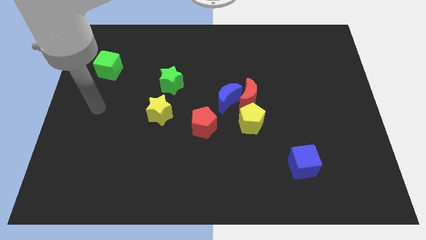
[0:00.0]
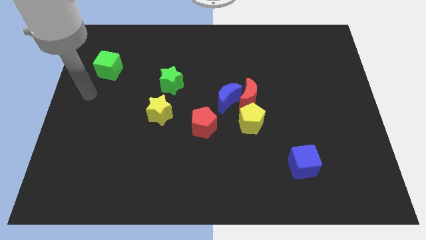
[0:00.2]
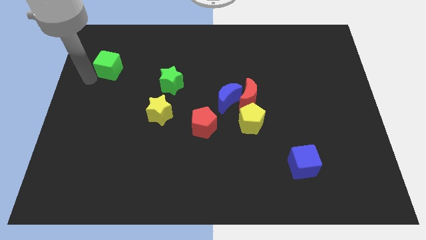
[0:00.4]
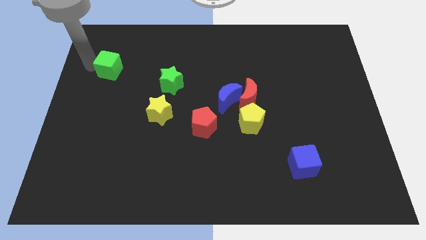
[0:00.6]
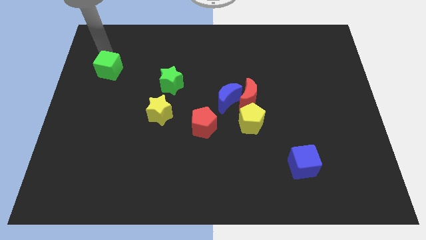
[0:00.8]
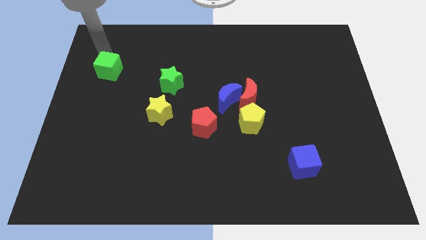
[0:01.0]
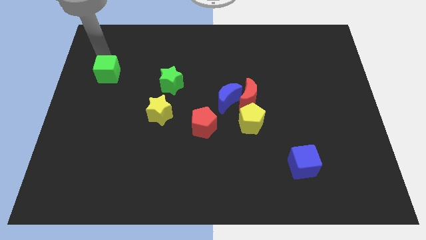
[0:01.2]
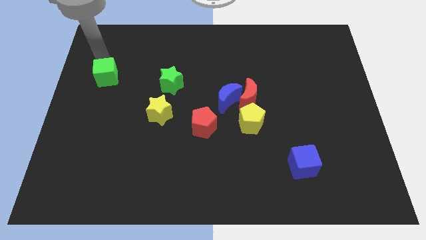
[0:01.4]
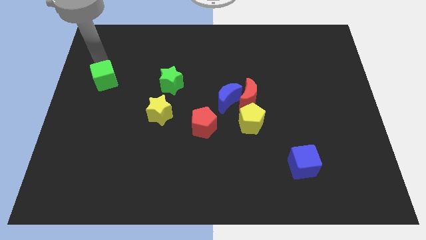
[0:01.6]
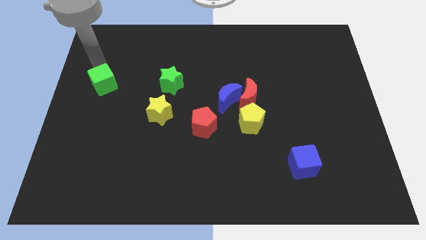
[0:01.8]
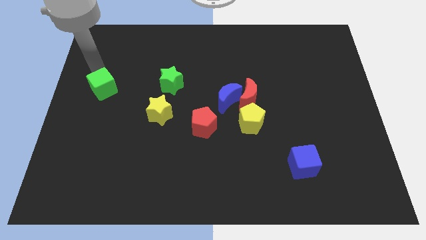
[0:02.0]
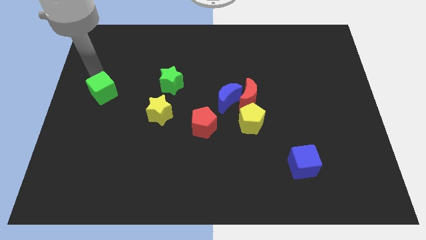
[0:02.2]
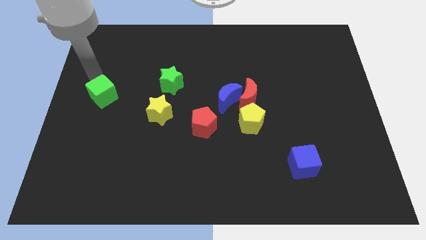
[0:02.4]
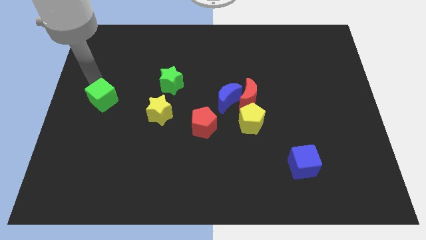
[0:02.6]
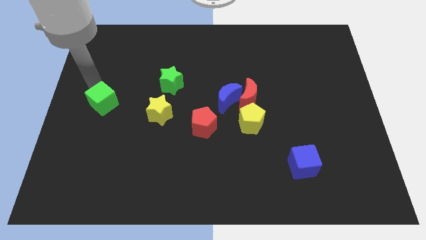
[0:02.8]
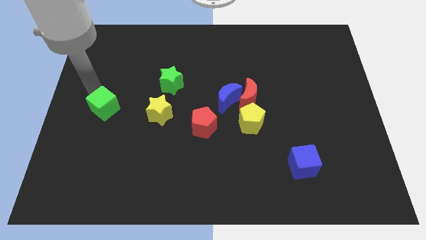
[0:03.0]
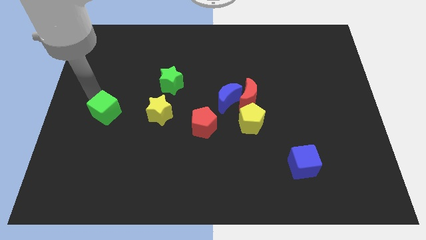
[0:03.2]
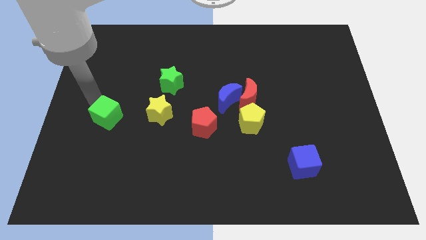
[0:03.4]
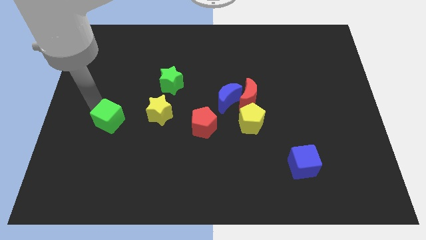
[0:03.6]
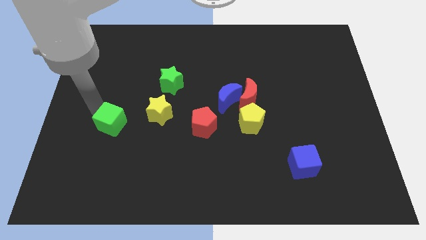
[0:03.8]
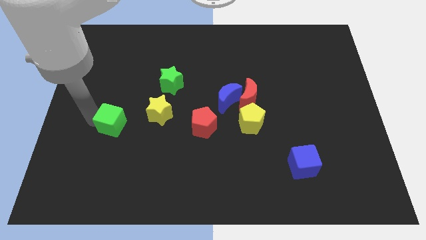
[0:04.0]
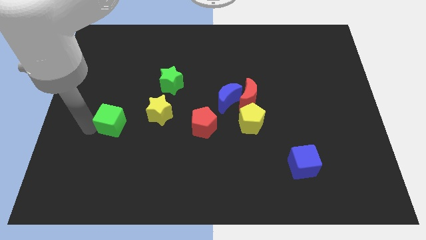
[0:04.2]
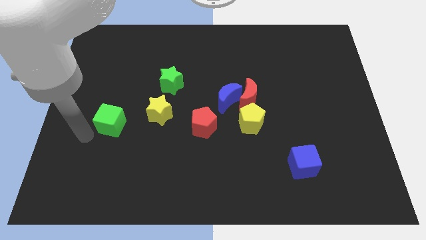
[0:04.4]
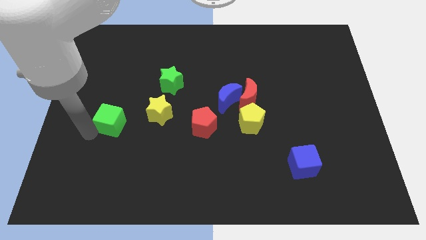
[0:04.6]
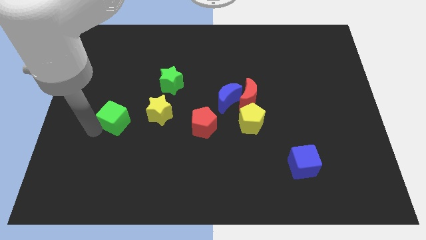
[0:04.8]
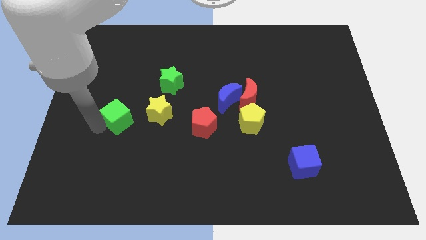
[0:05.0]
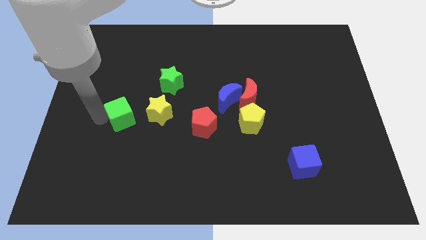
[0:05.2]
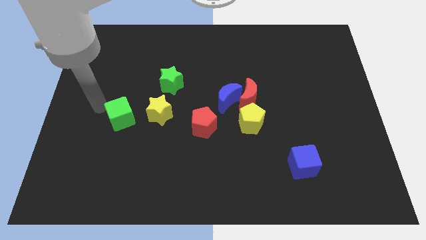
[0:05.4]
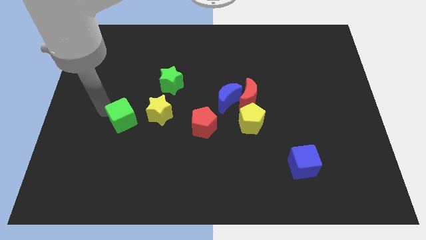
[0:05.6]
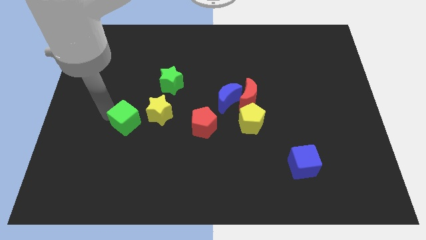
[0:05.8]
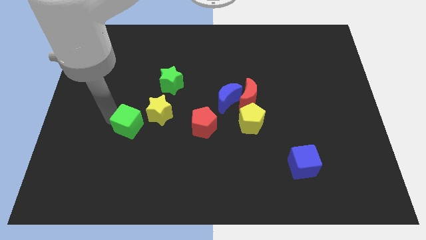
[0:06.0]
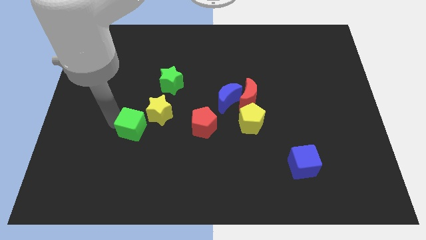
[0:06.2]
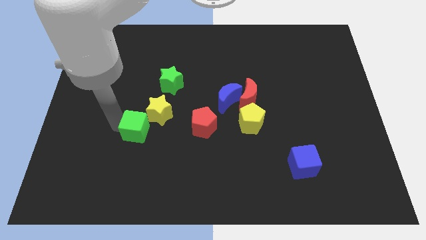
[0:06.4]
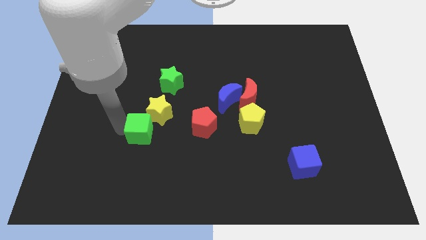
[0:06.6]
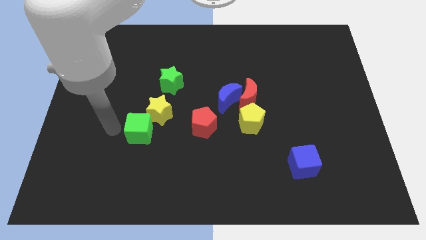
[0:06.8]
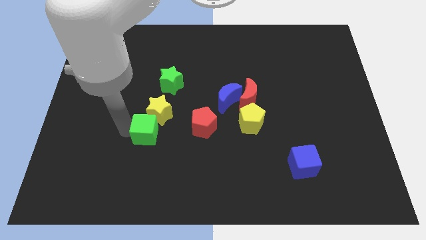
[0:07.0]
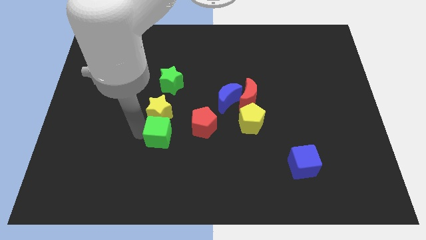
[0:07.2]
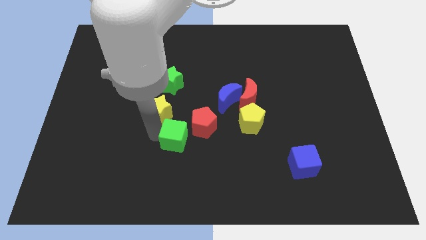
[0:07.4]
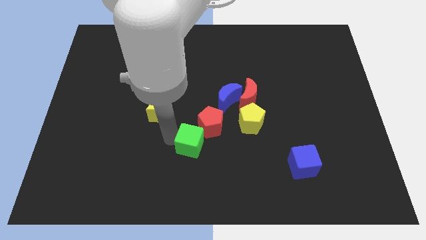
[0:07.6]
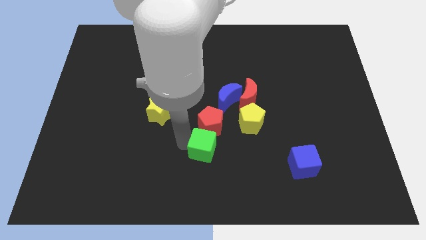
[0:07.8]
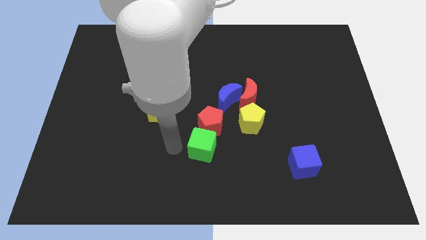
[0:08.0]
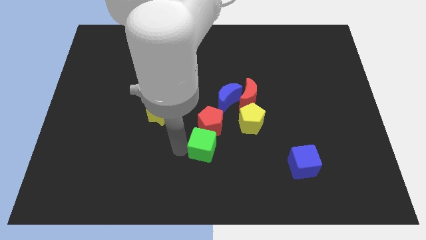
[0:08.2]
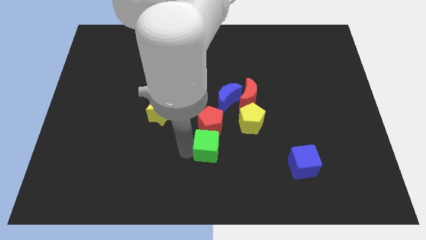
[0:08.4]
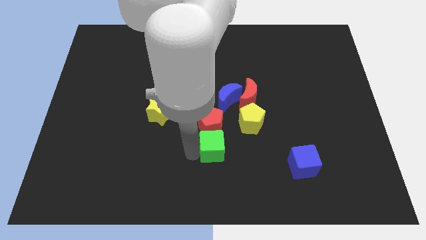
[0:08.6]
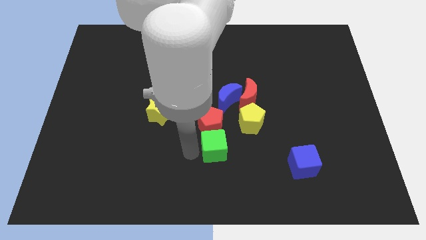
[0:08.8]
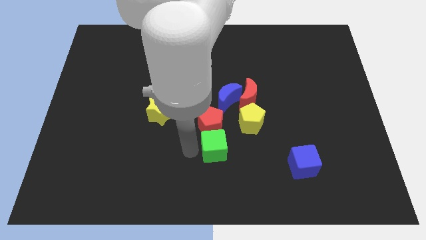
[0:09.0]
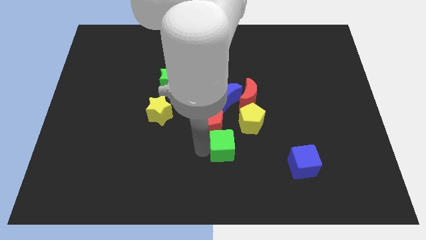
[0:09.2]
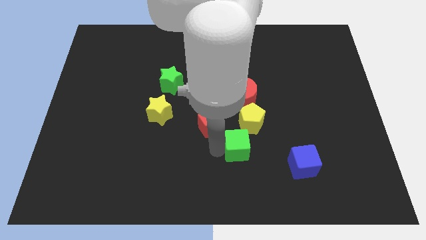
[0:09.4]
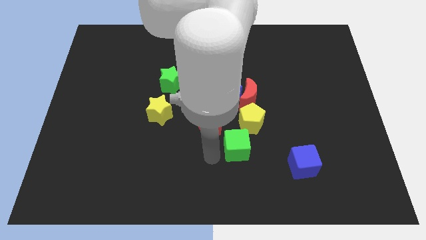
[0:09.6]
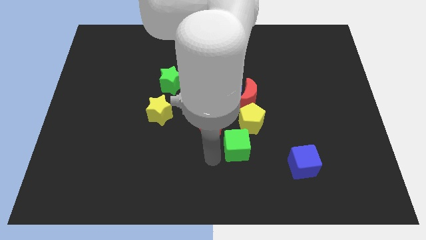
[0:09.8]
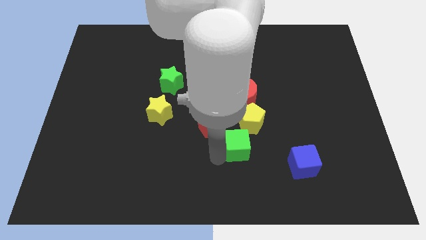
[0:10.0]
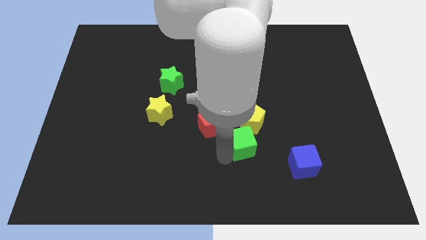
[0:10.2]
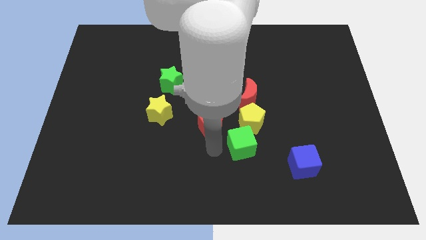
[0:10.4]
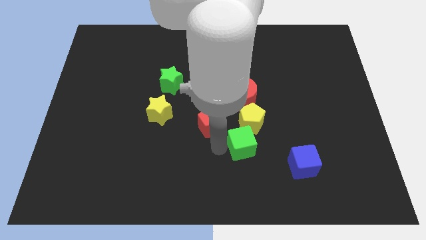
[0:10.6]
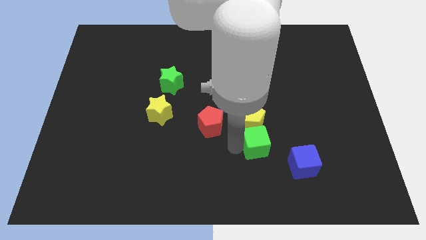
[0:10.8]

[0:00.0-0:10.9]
move the green cube to the top left side of the blue cube

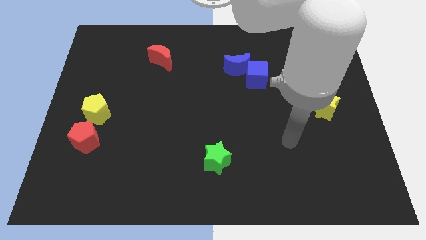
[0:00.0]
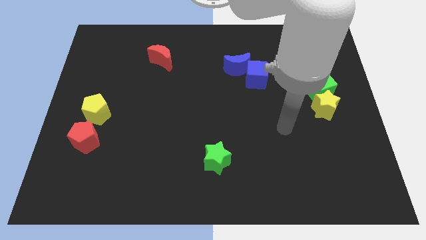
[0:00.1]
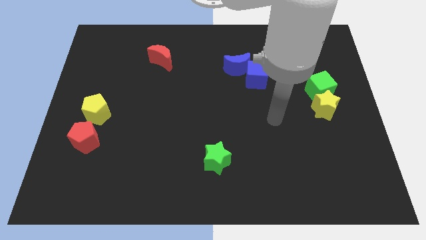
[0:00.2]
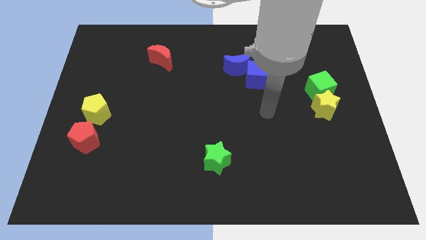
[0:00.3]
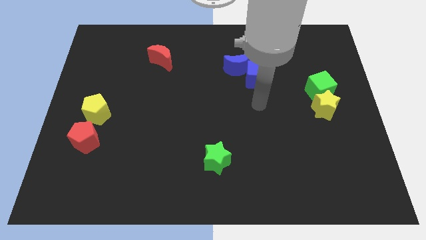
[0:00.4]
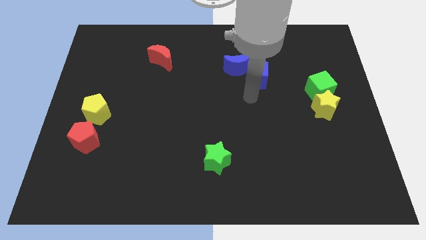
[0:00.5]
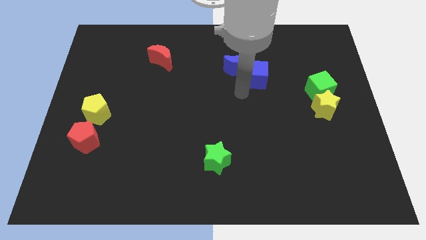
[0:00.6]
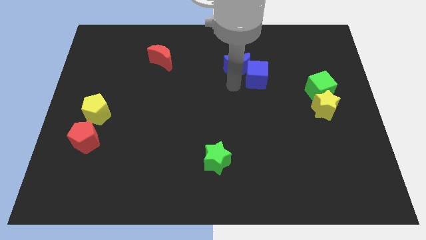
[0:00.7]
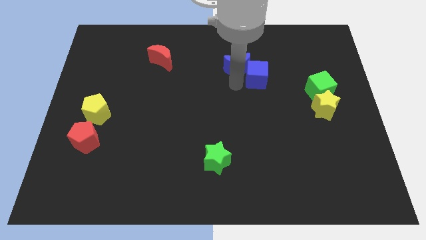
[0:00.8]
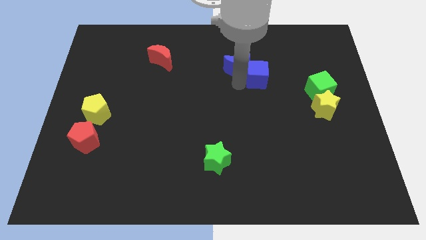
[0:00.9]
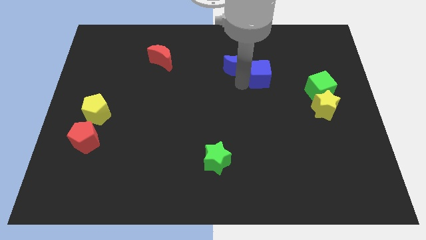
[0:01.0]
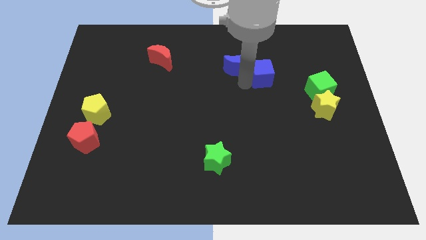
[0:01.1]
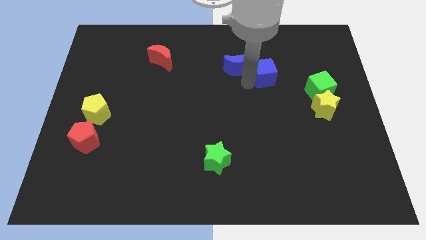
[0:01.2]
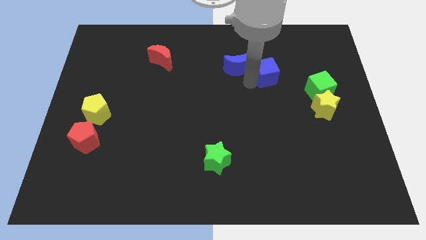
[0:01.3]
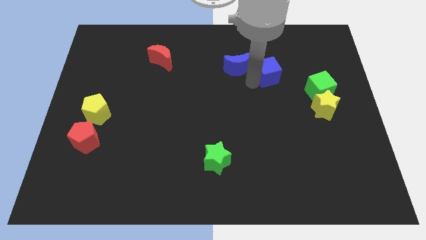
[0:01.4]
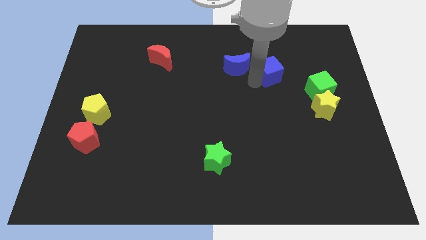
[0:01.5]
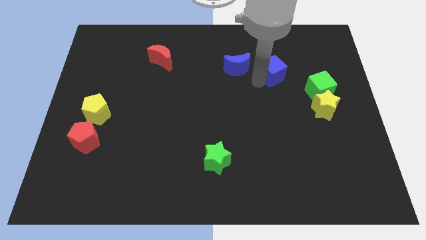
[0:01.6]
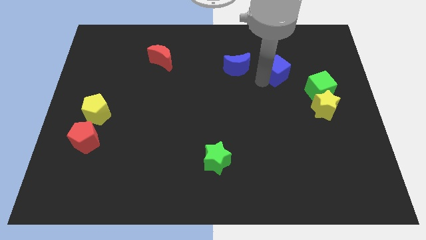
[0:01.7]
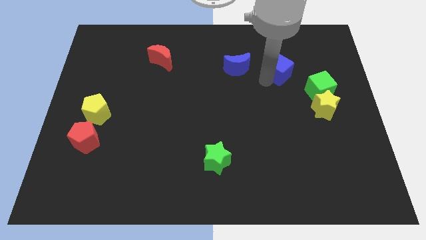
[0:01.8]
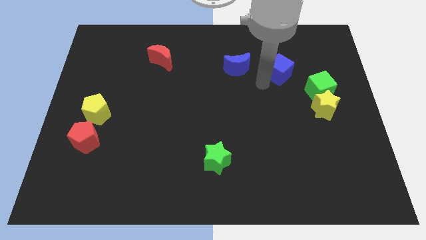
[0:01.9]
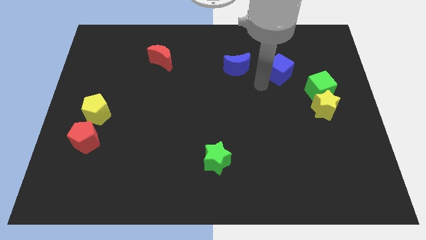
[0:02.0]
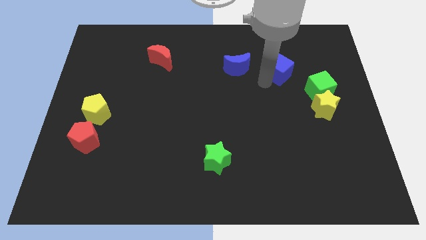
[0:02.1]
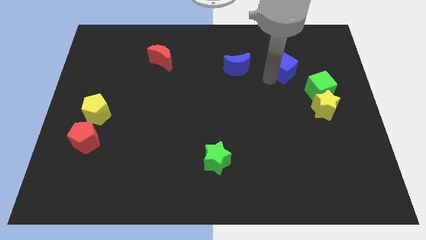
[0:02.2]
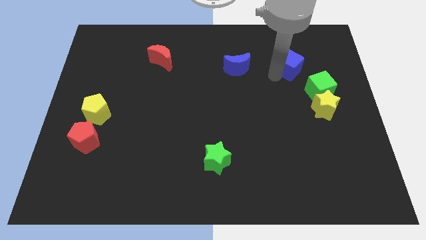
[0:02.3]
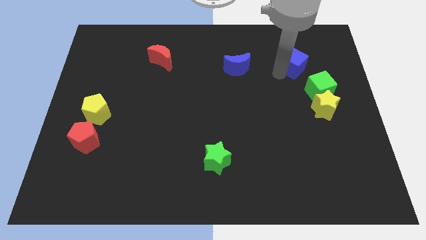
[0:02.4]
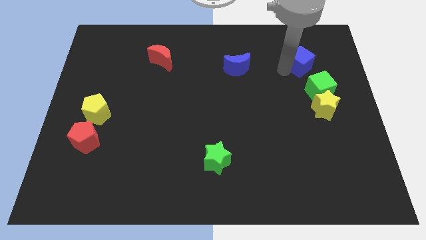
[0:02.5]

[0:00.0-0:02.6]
slide the blue cube to the top side of the green cube
